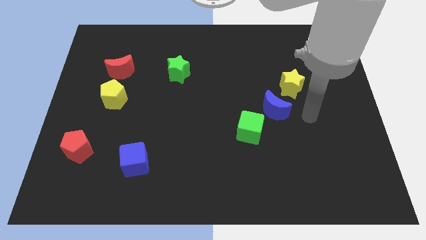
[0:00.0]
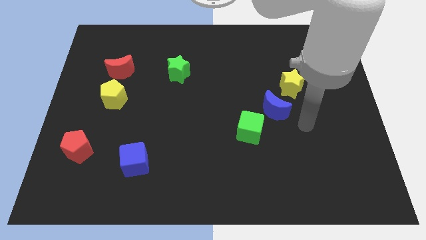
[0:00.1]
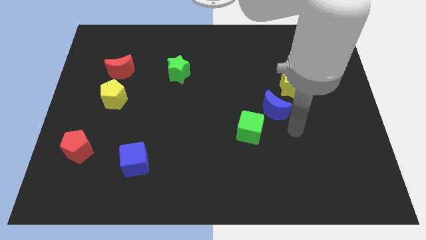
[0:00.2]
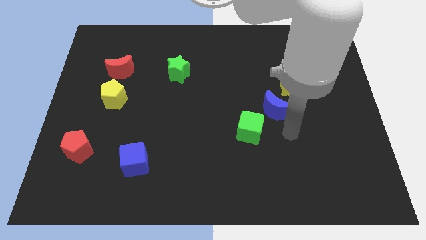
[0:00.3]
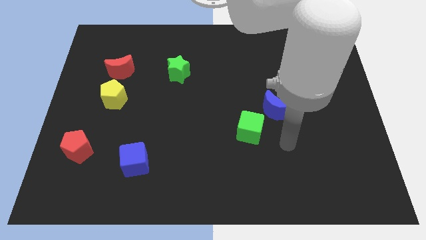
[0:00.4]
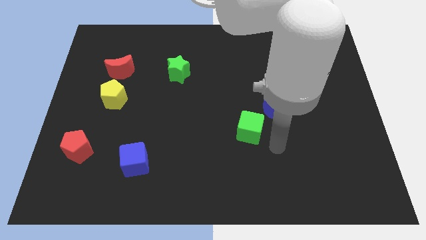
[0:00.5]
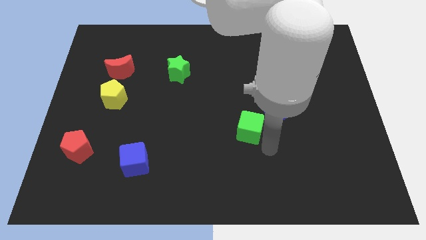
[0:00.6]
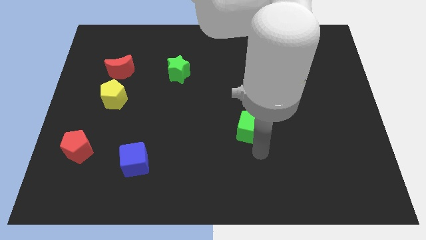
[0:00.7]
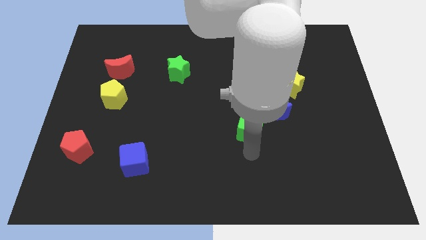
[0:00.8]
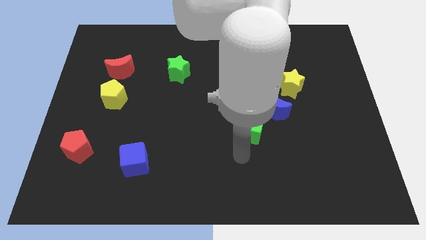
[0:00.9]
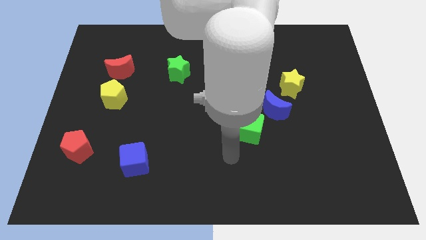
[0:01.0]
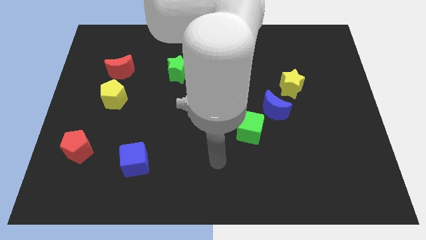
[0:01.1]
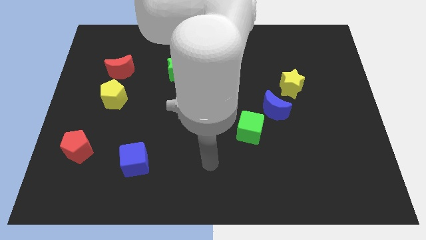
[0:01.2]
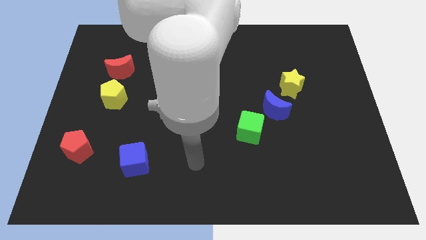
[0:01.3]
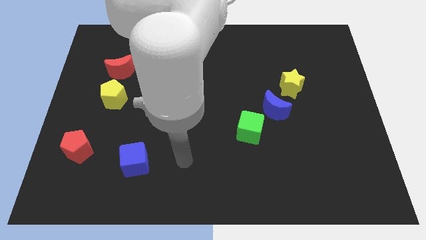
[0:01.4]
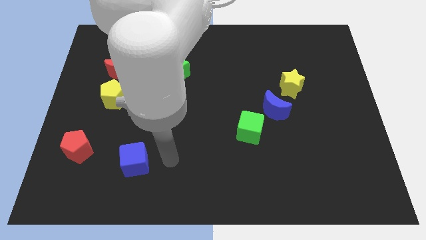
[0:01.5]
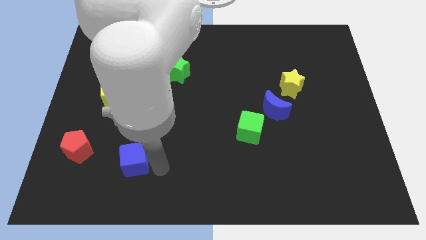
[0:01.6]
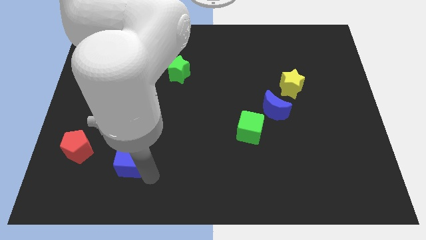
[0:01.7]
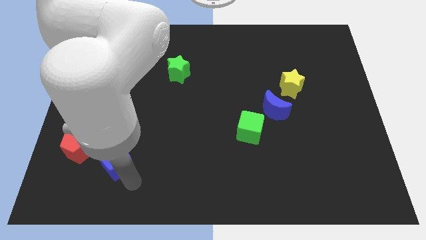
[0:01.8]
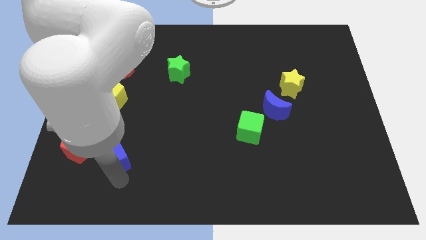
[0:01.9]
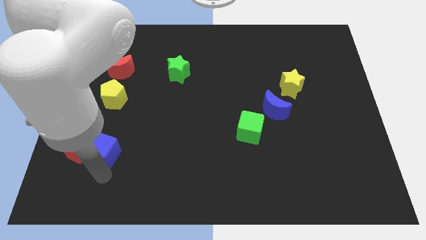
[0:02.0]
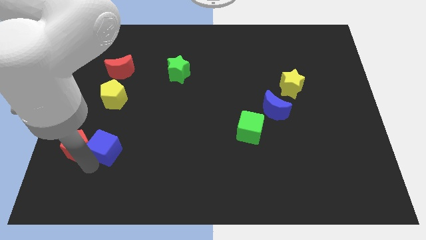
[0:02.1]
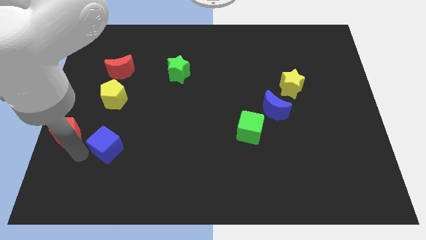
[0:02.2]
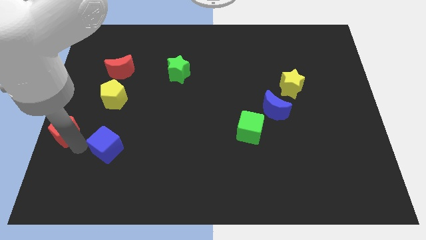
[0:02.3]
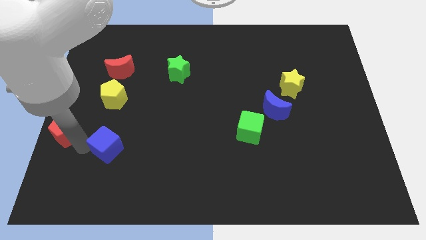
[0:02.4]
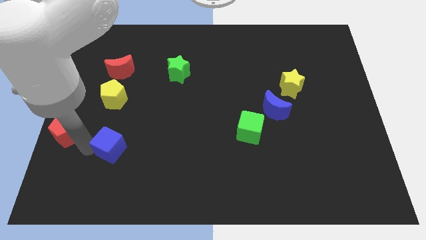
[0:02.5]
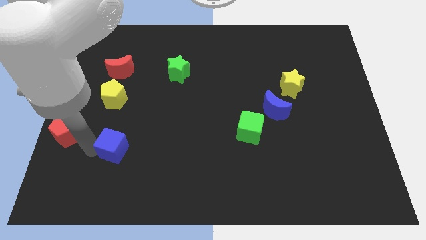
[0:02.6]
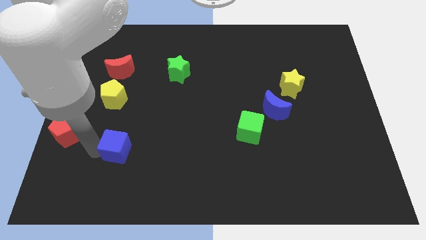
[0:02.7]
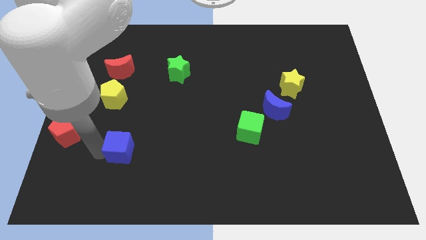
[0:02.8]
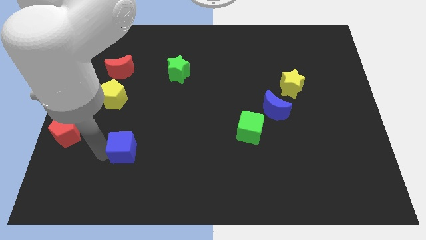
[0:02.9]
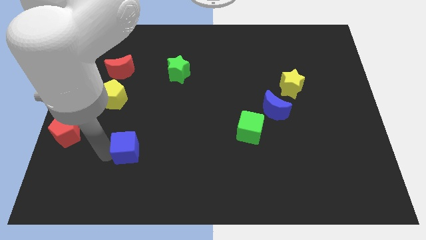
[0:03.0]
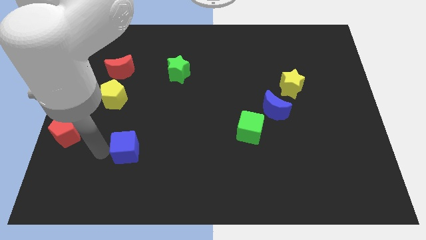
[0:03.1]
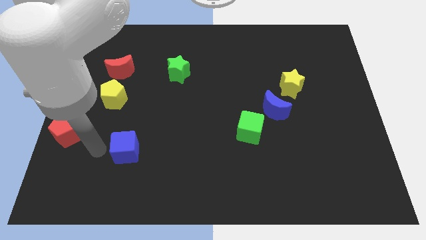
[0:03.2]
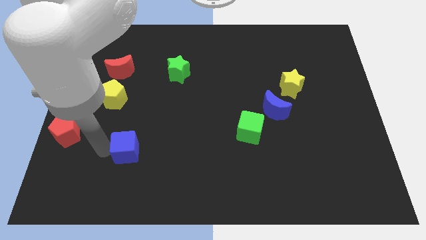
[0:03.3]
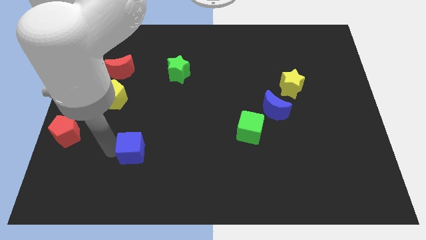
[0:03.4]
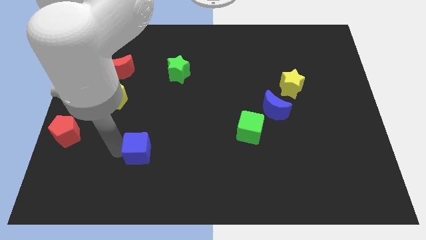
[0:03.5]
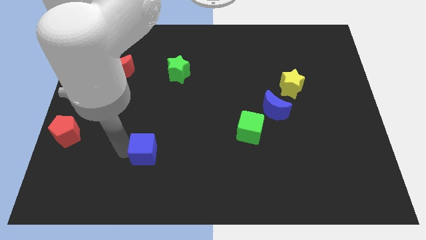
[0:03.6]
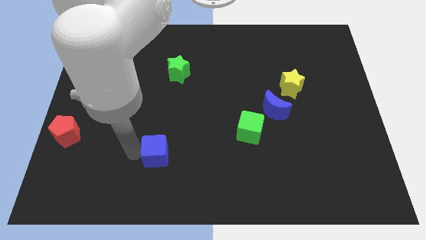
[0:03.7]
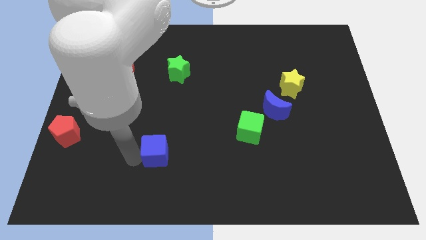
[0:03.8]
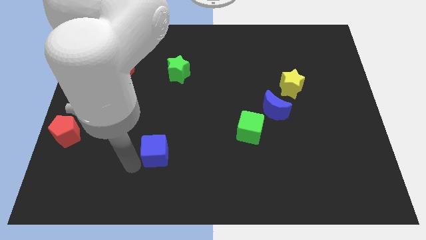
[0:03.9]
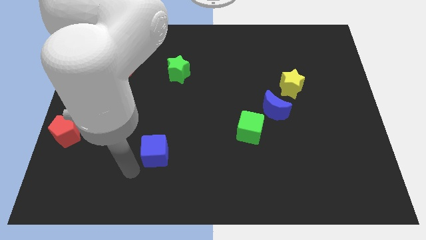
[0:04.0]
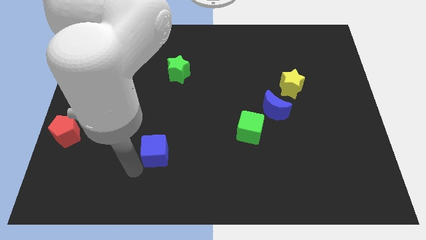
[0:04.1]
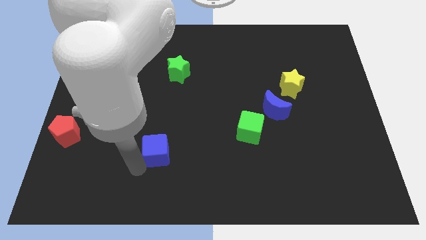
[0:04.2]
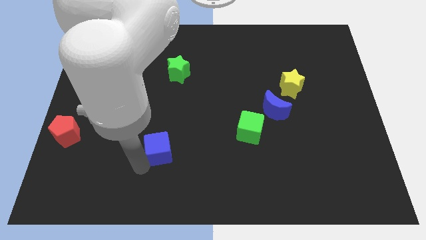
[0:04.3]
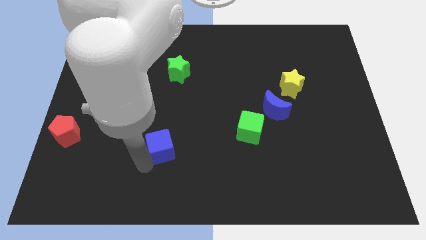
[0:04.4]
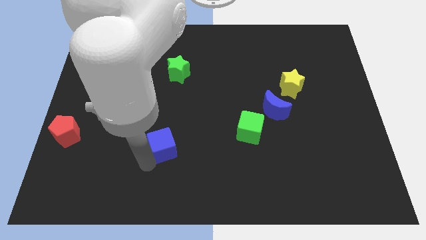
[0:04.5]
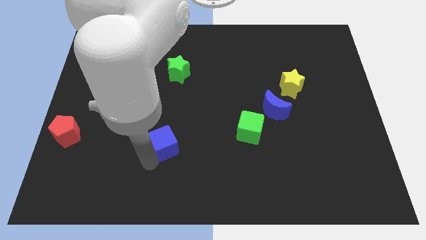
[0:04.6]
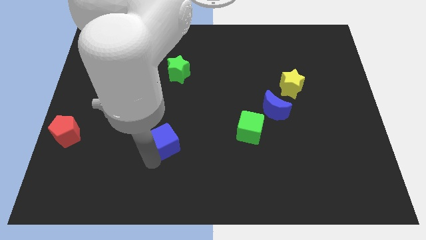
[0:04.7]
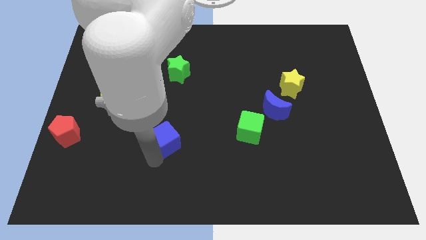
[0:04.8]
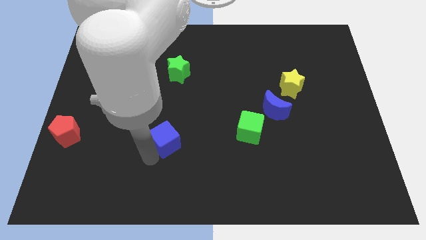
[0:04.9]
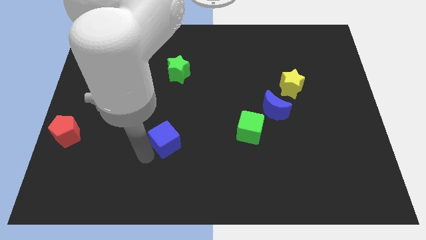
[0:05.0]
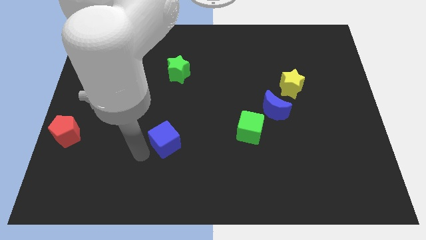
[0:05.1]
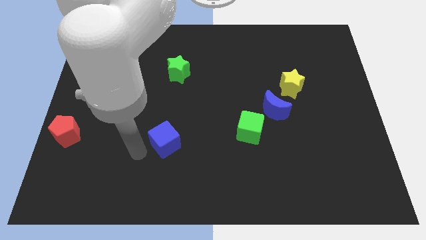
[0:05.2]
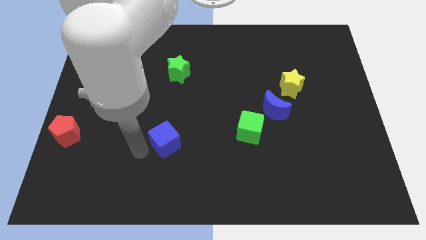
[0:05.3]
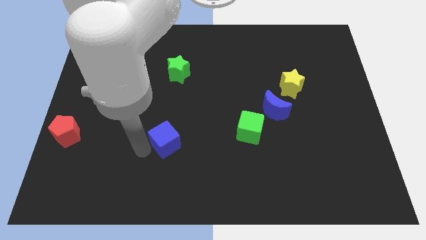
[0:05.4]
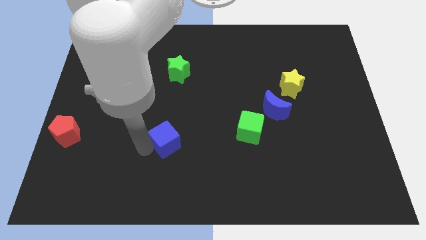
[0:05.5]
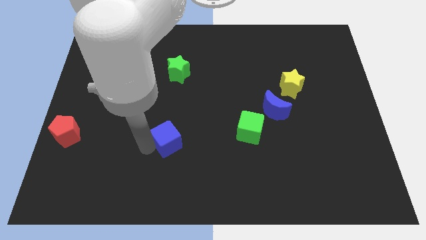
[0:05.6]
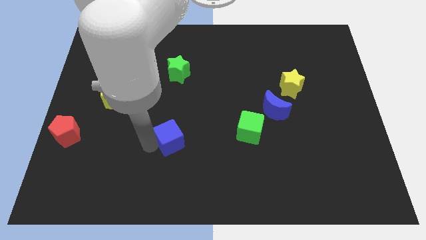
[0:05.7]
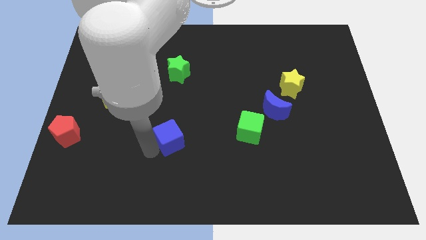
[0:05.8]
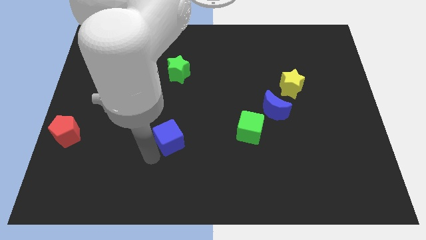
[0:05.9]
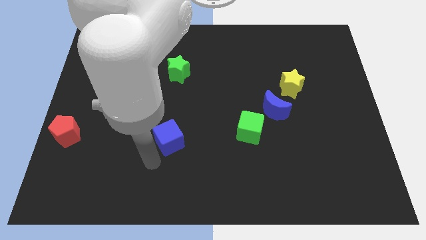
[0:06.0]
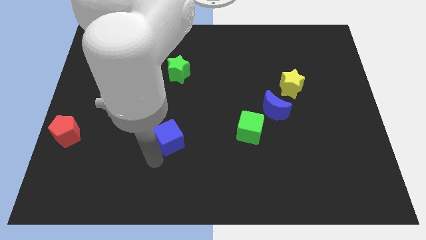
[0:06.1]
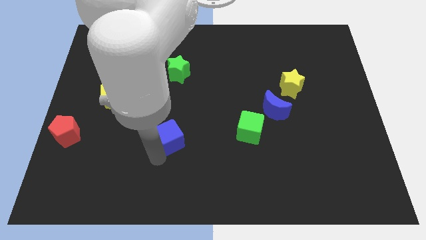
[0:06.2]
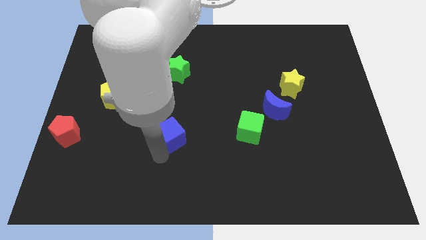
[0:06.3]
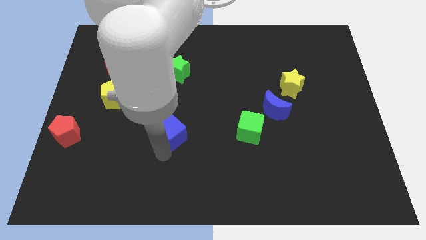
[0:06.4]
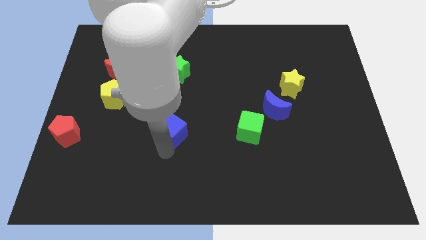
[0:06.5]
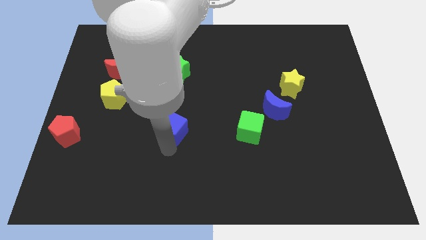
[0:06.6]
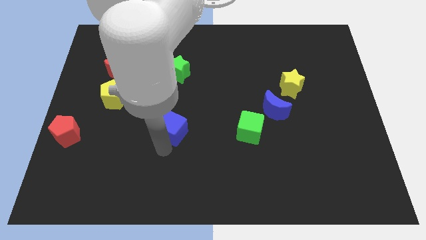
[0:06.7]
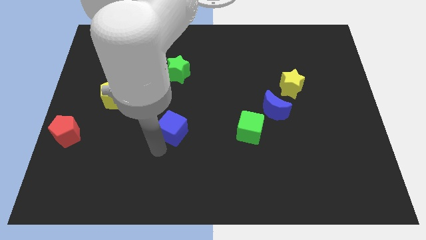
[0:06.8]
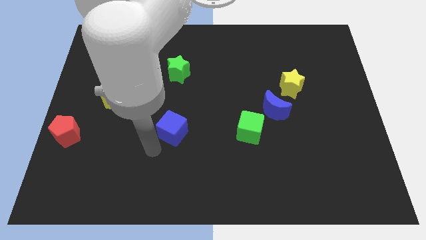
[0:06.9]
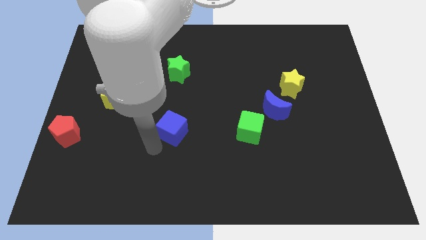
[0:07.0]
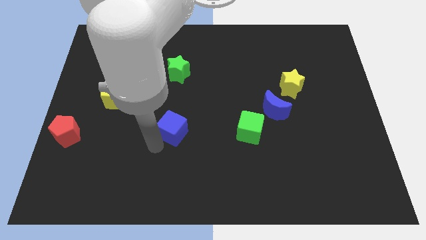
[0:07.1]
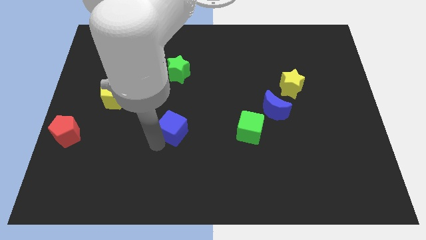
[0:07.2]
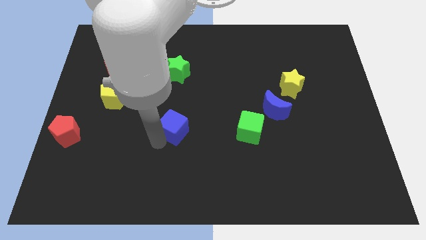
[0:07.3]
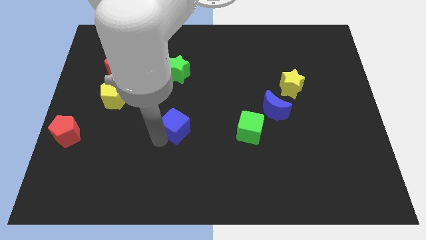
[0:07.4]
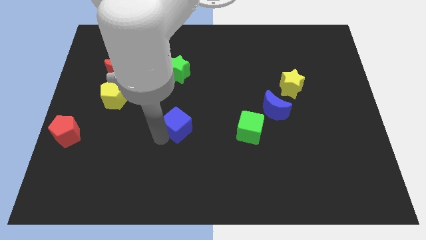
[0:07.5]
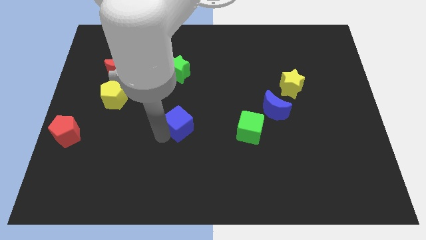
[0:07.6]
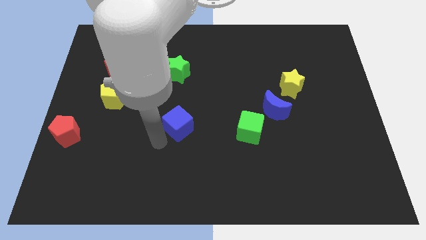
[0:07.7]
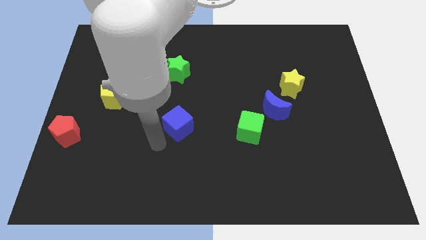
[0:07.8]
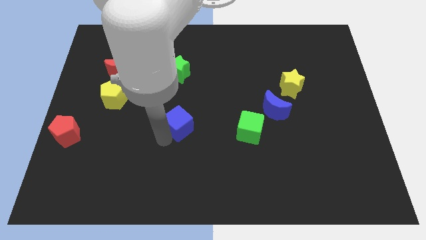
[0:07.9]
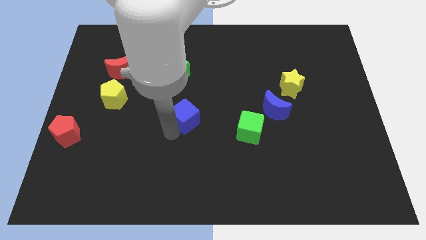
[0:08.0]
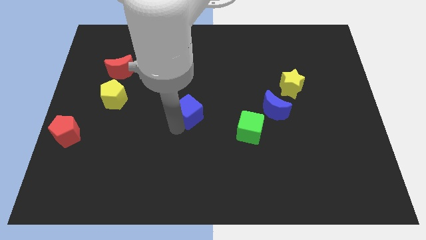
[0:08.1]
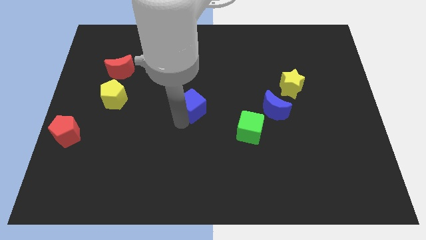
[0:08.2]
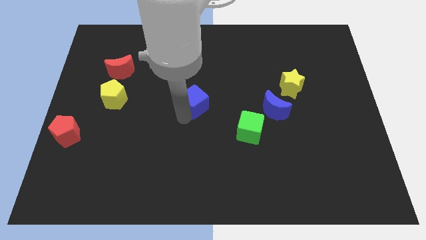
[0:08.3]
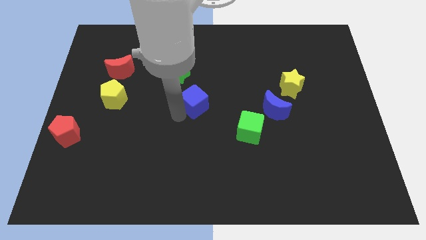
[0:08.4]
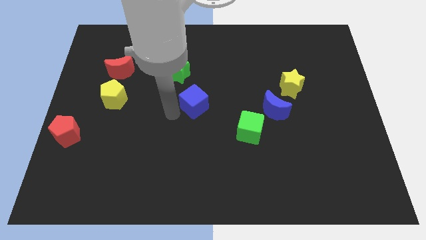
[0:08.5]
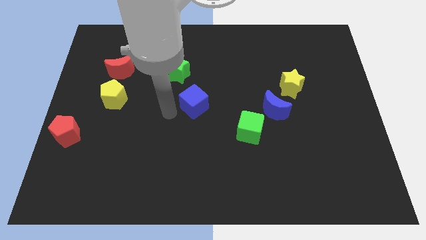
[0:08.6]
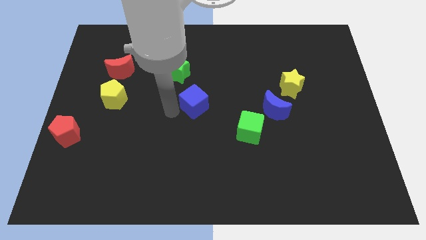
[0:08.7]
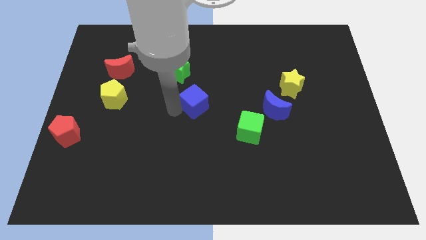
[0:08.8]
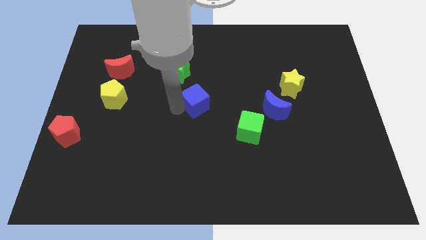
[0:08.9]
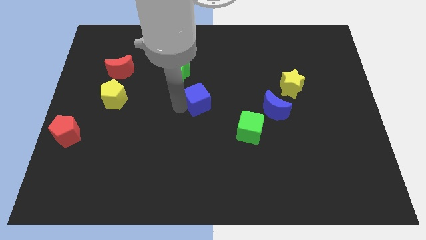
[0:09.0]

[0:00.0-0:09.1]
move the blue cube diagonally upwards and to the right
